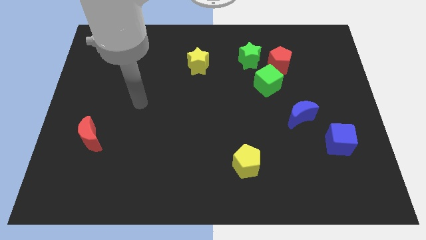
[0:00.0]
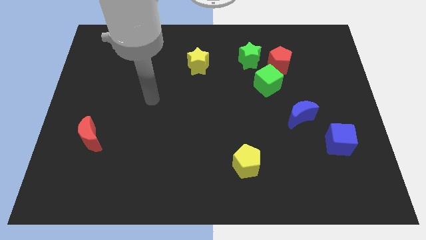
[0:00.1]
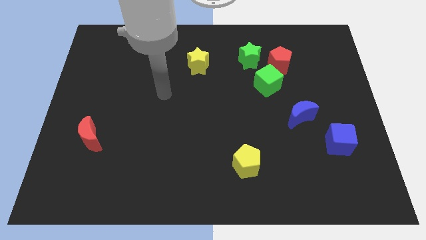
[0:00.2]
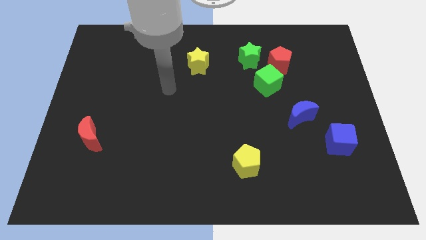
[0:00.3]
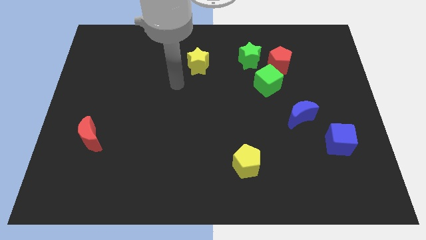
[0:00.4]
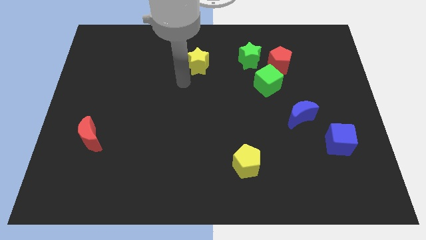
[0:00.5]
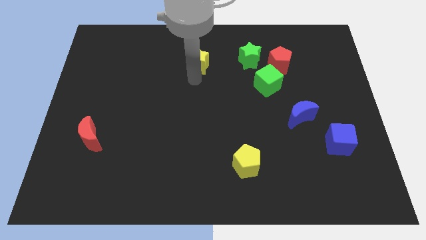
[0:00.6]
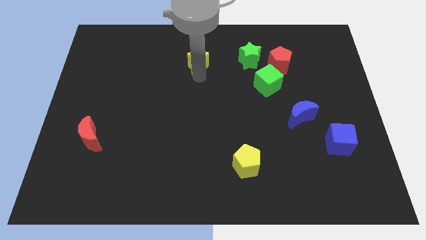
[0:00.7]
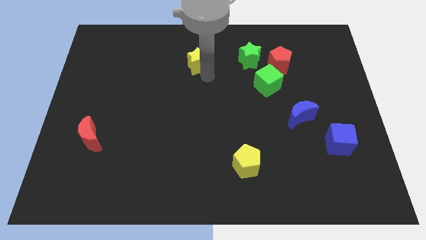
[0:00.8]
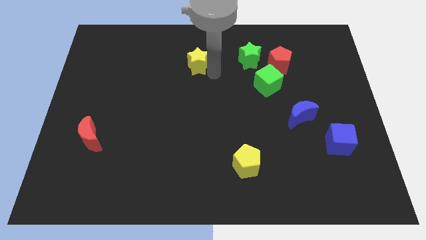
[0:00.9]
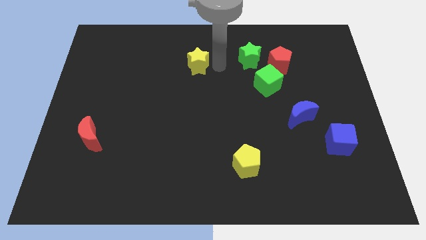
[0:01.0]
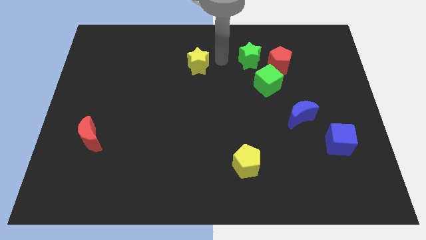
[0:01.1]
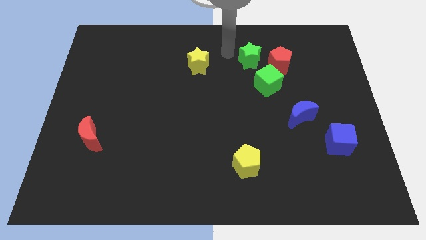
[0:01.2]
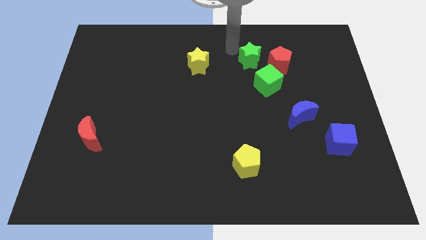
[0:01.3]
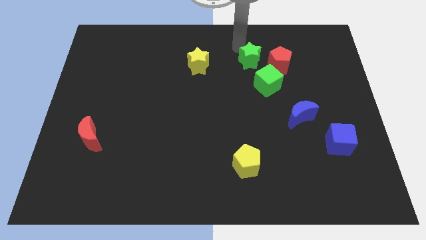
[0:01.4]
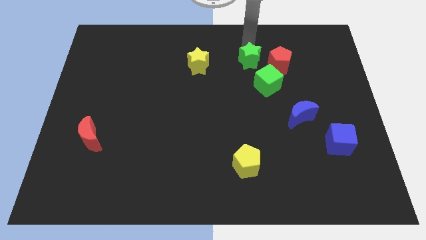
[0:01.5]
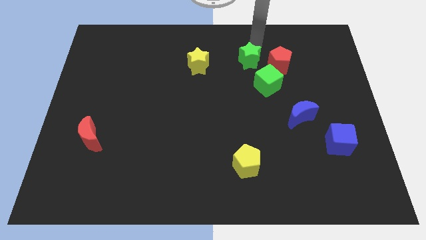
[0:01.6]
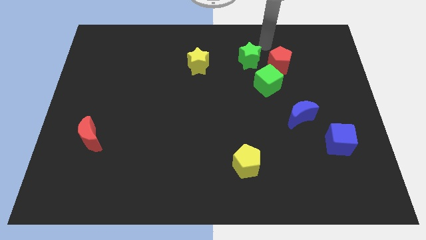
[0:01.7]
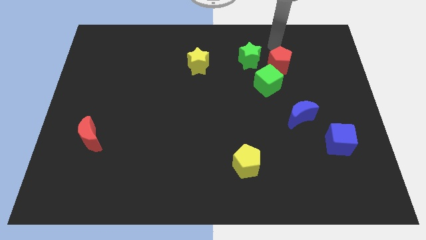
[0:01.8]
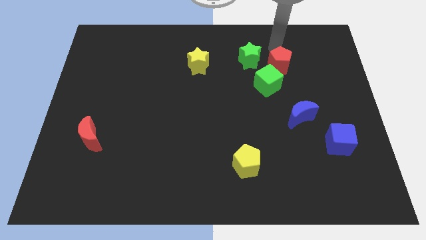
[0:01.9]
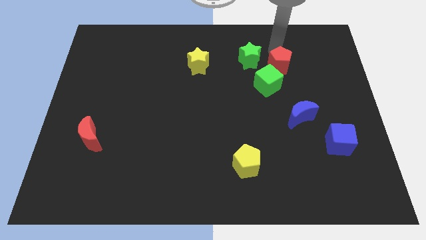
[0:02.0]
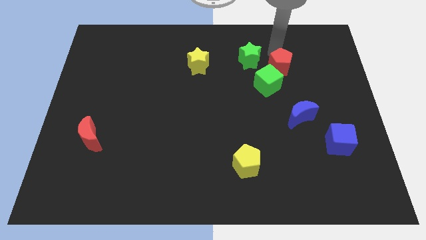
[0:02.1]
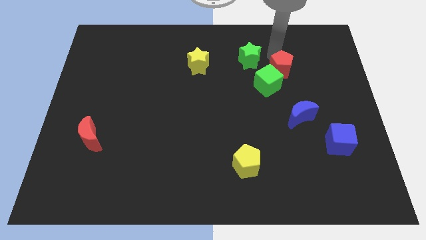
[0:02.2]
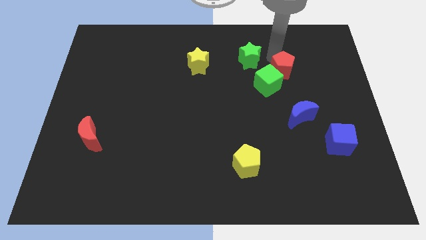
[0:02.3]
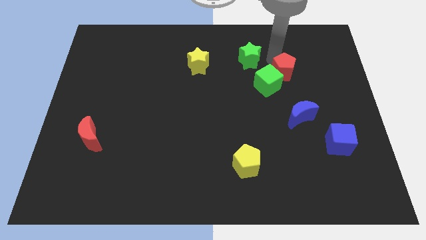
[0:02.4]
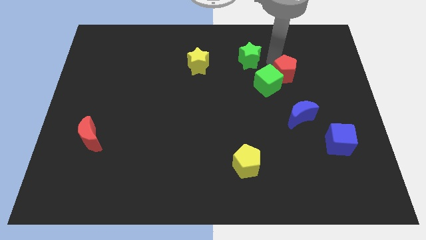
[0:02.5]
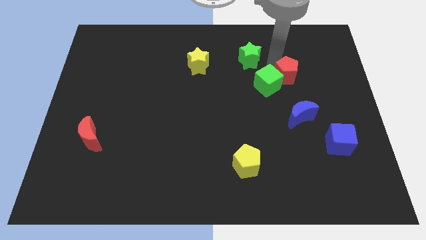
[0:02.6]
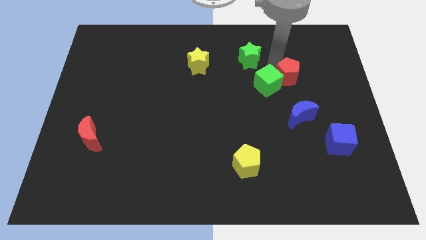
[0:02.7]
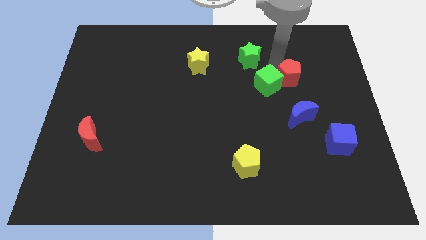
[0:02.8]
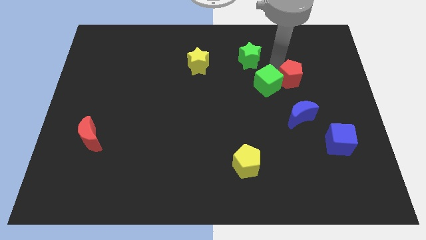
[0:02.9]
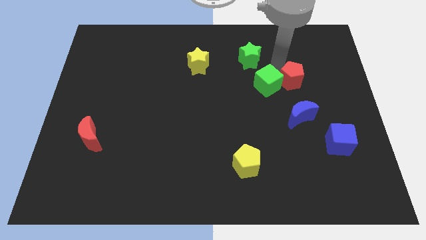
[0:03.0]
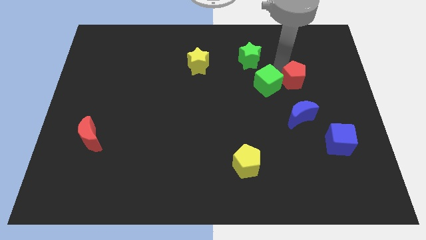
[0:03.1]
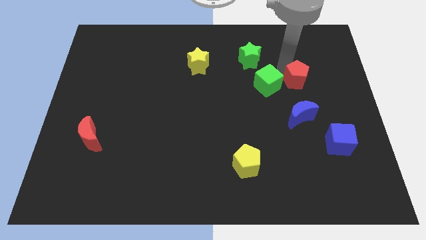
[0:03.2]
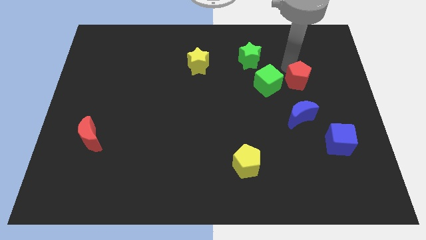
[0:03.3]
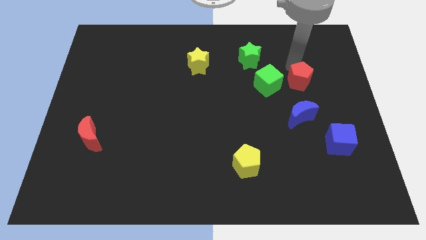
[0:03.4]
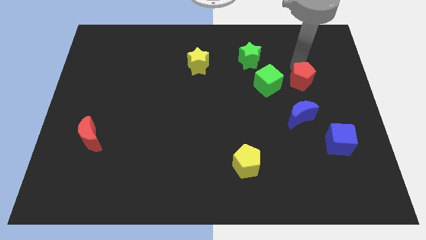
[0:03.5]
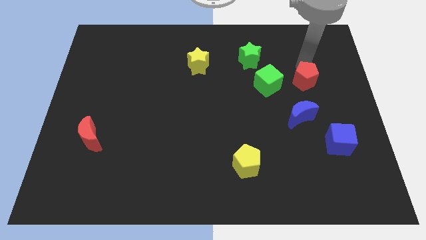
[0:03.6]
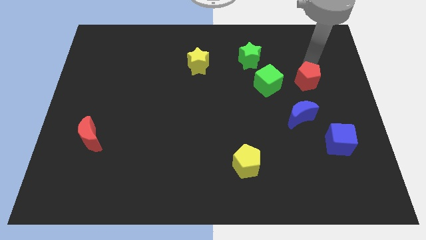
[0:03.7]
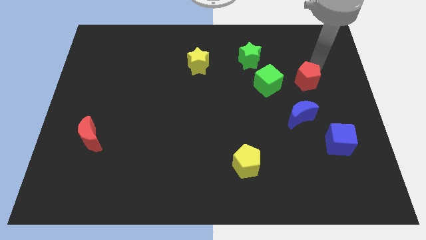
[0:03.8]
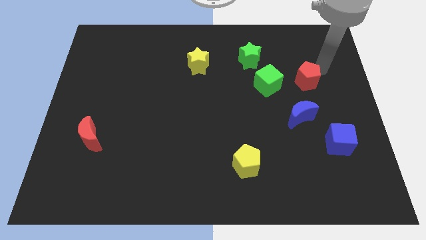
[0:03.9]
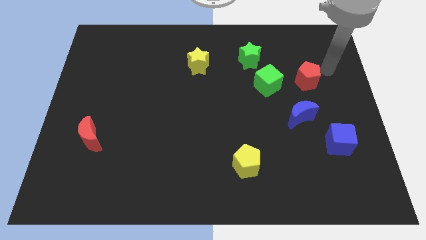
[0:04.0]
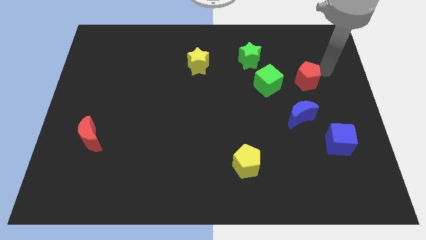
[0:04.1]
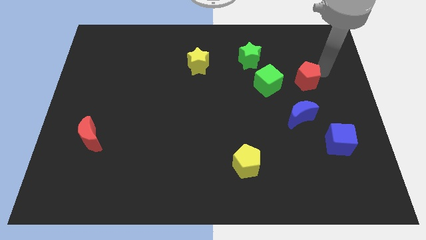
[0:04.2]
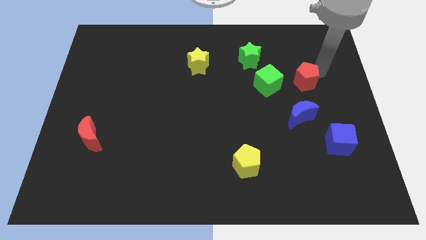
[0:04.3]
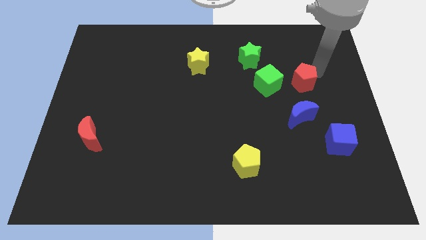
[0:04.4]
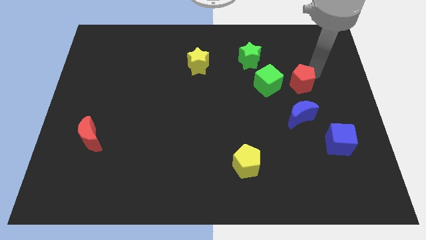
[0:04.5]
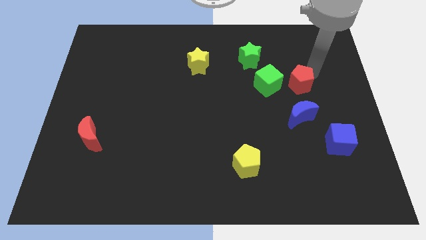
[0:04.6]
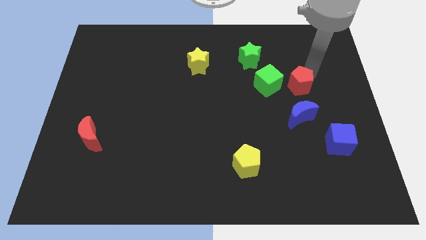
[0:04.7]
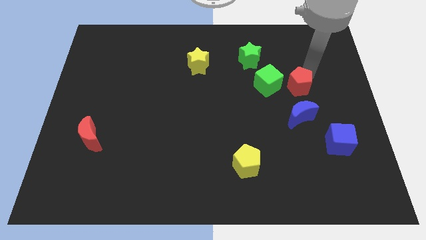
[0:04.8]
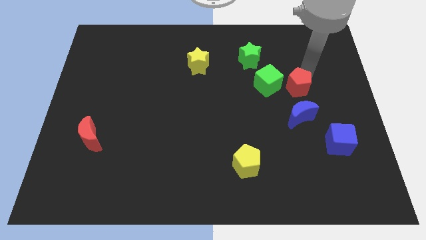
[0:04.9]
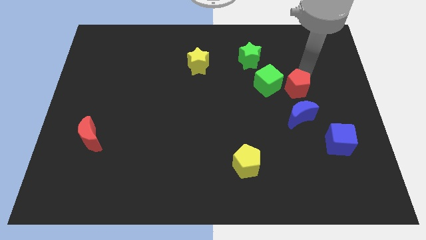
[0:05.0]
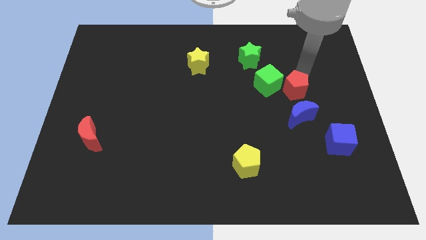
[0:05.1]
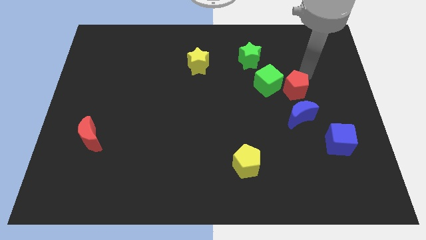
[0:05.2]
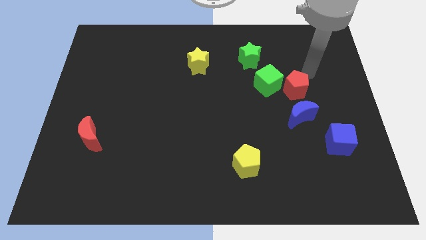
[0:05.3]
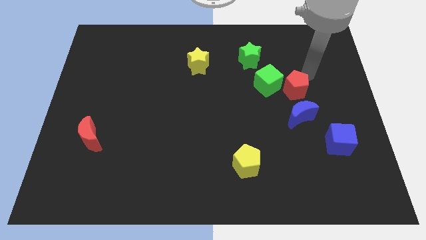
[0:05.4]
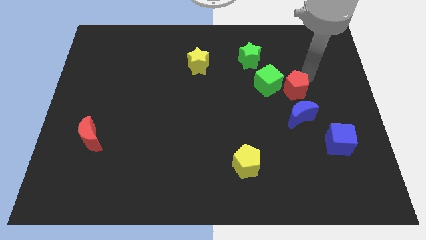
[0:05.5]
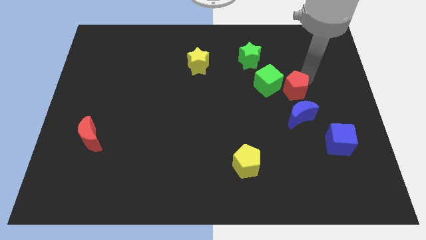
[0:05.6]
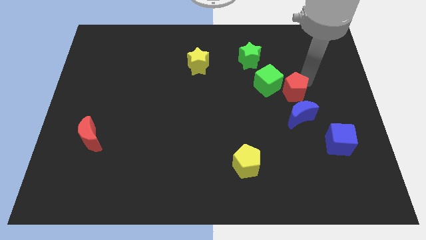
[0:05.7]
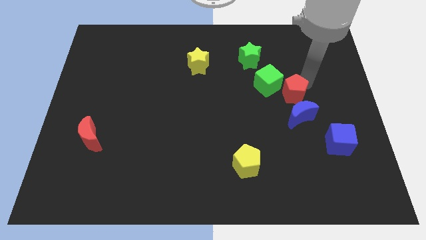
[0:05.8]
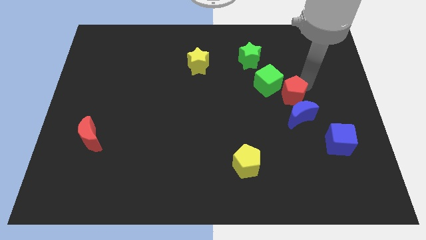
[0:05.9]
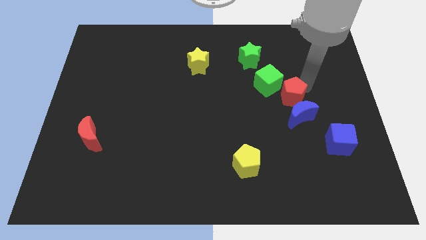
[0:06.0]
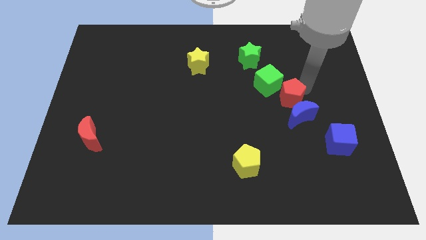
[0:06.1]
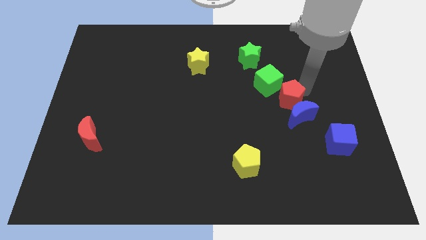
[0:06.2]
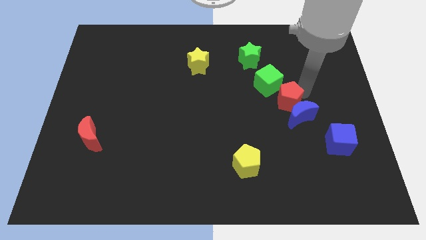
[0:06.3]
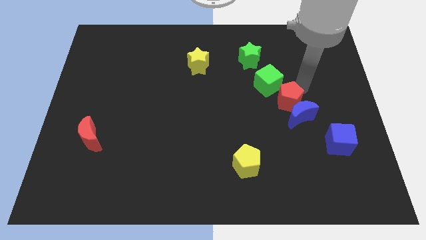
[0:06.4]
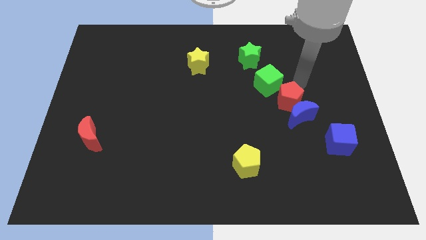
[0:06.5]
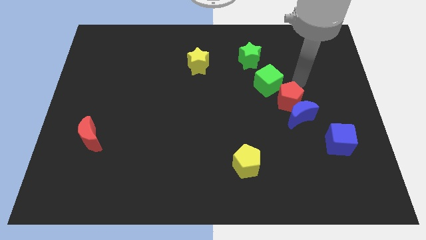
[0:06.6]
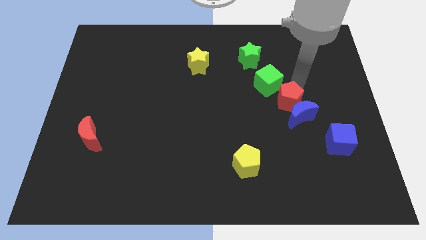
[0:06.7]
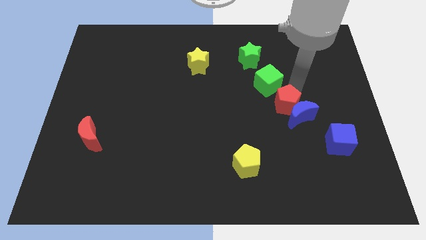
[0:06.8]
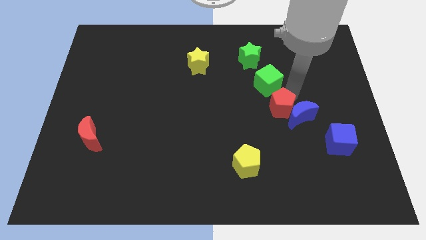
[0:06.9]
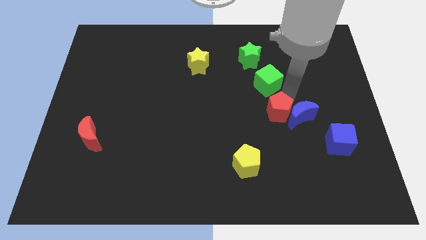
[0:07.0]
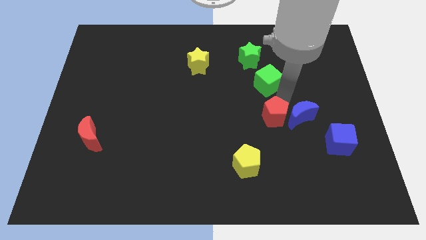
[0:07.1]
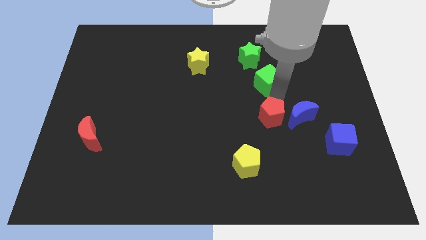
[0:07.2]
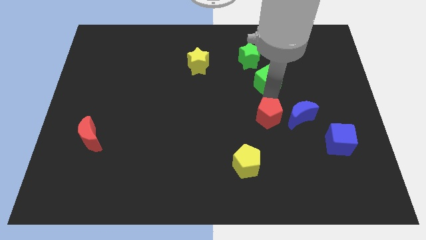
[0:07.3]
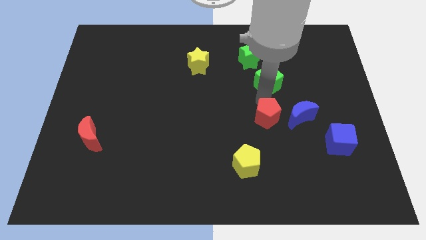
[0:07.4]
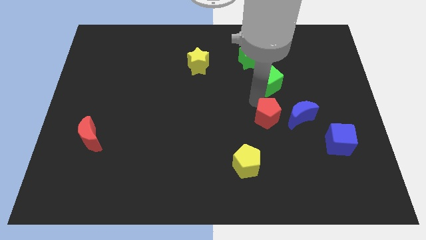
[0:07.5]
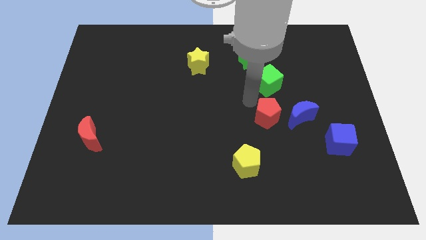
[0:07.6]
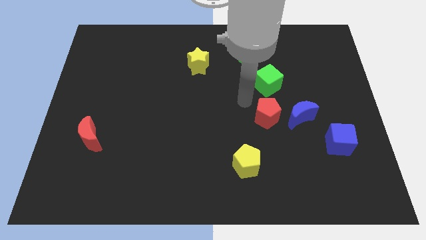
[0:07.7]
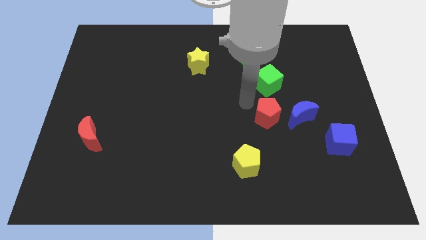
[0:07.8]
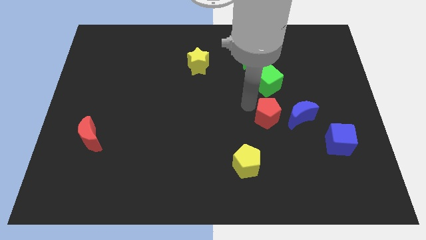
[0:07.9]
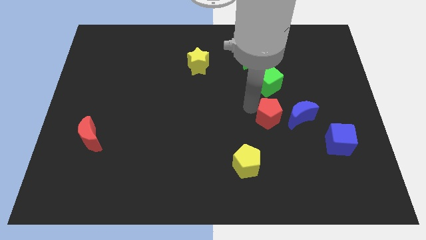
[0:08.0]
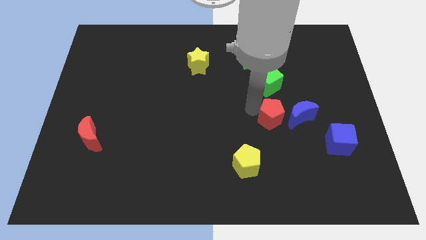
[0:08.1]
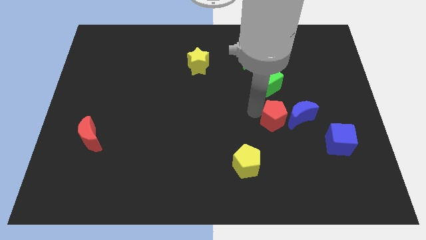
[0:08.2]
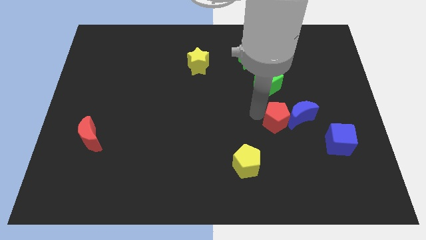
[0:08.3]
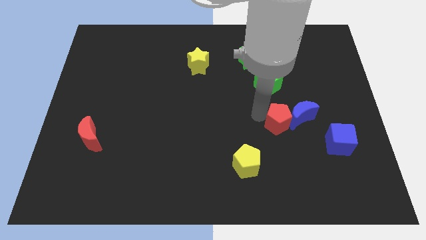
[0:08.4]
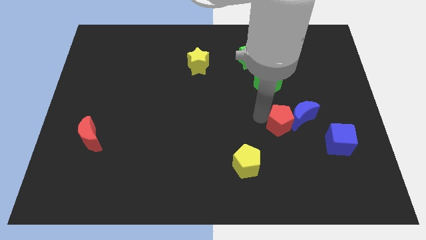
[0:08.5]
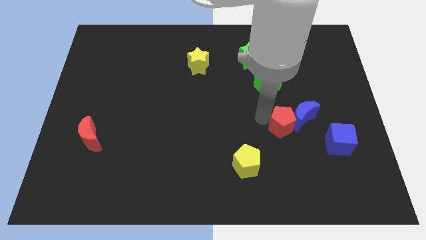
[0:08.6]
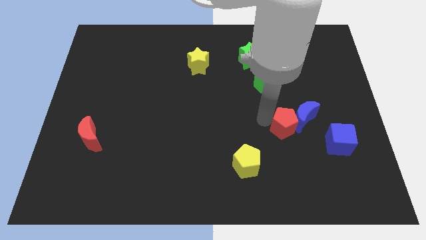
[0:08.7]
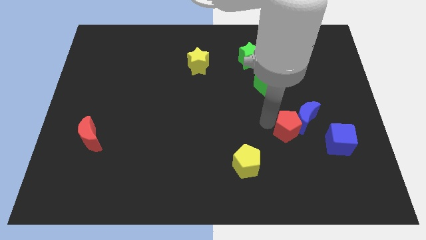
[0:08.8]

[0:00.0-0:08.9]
put the red pentagon to the bottom side of the blue moon
